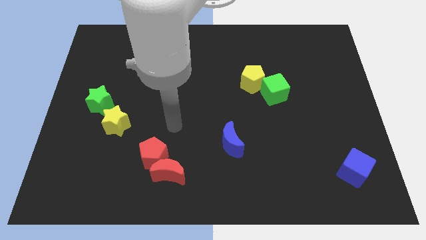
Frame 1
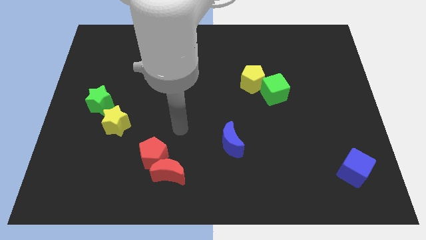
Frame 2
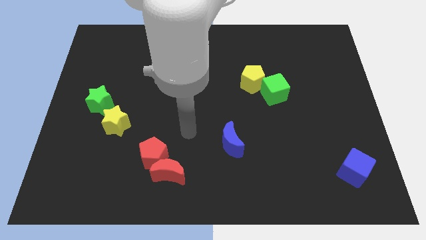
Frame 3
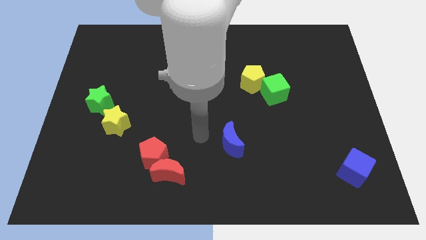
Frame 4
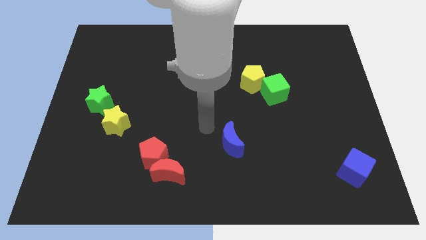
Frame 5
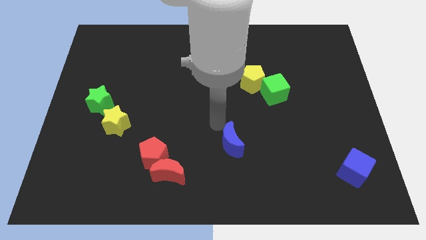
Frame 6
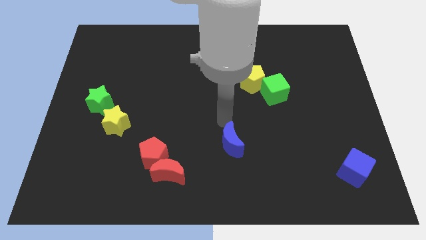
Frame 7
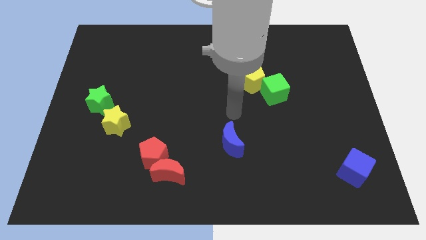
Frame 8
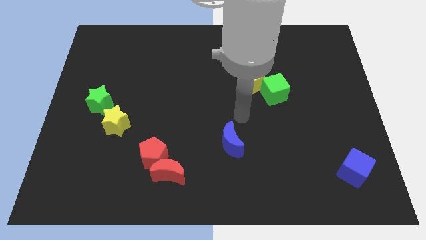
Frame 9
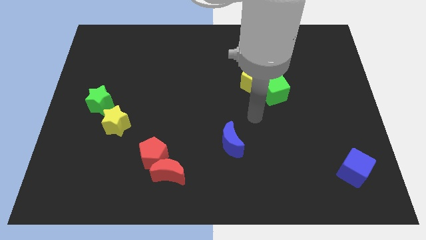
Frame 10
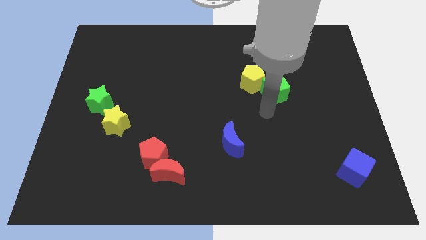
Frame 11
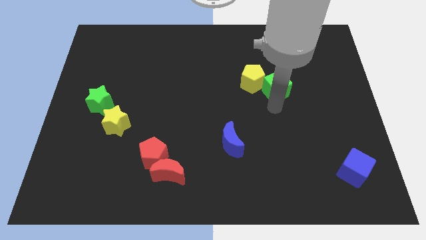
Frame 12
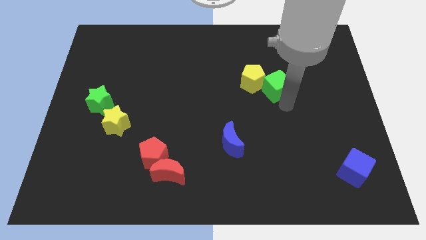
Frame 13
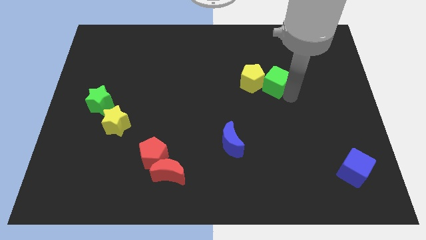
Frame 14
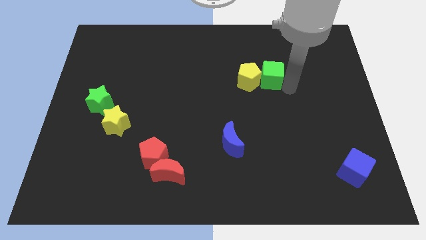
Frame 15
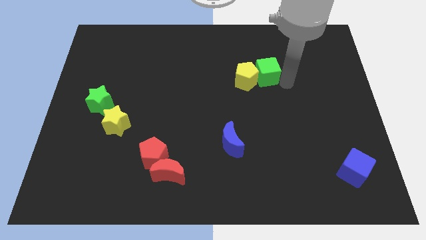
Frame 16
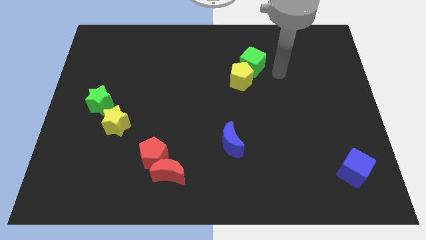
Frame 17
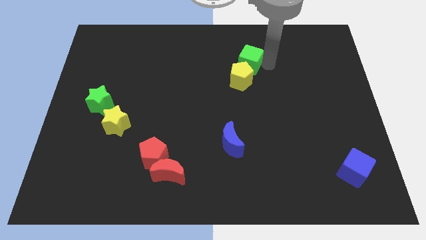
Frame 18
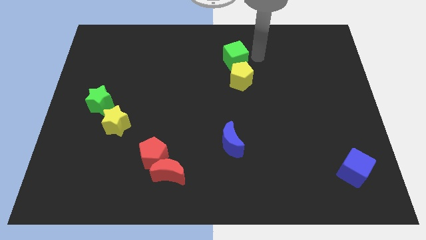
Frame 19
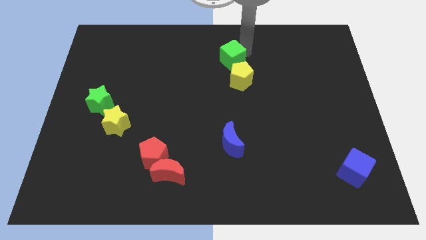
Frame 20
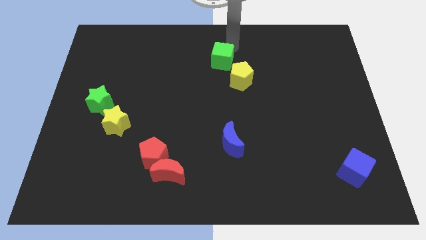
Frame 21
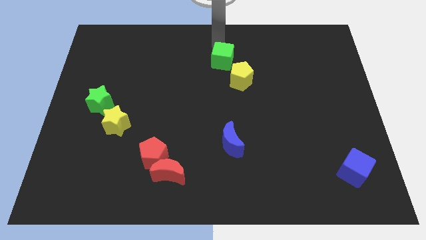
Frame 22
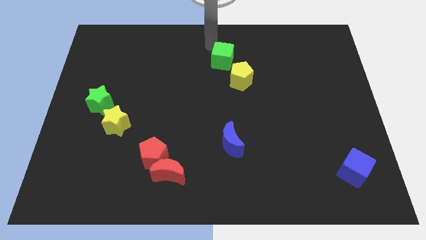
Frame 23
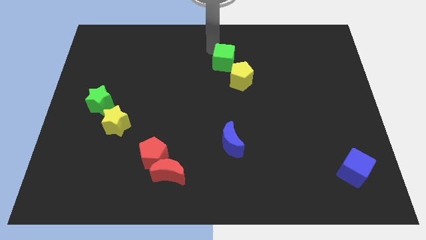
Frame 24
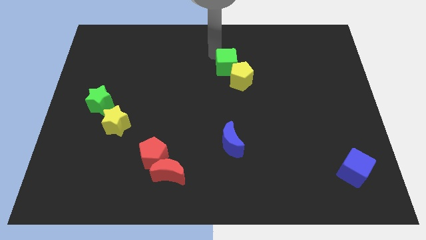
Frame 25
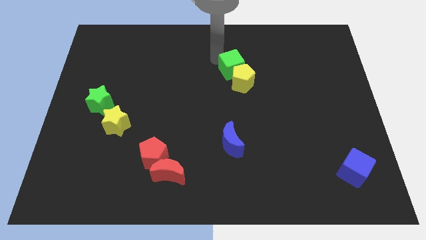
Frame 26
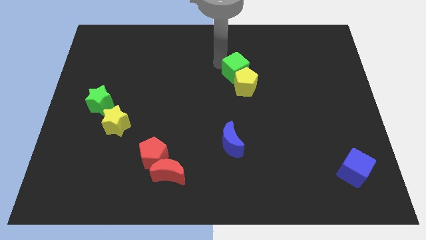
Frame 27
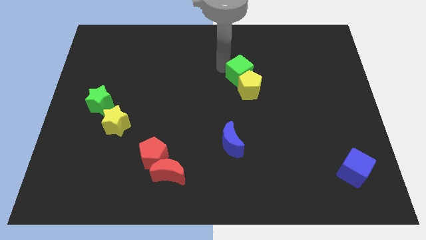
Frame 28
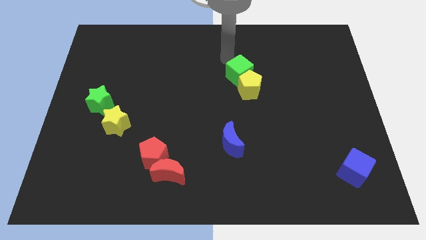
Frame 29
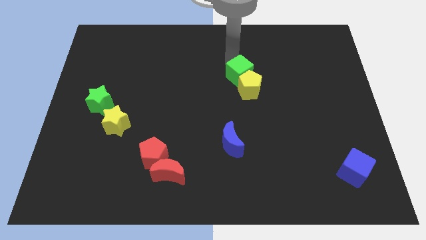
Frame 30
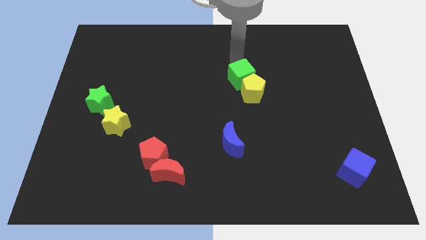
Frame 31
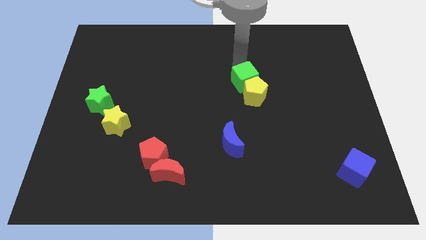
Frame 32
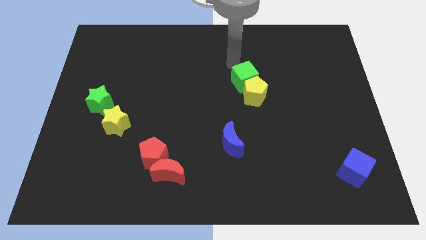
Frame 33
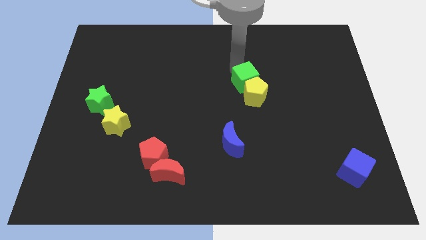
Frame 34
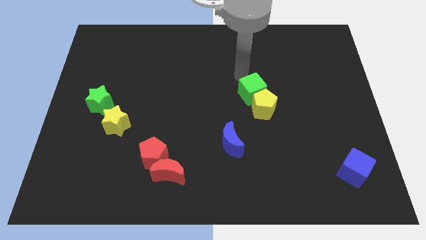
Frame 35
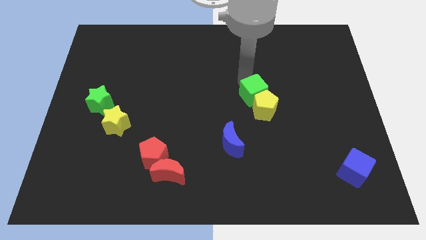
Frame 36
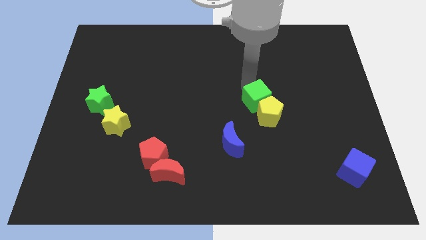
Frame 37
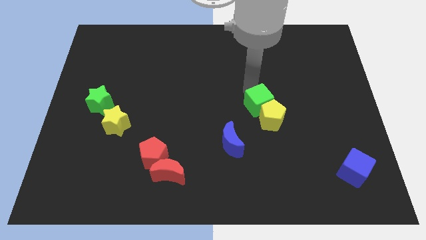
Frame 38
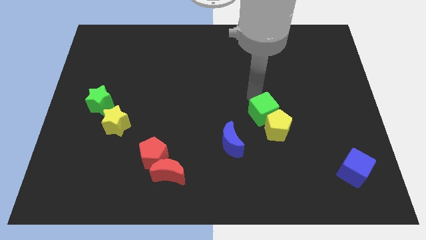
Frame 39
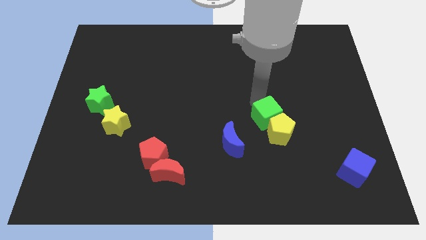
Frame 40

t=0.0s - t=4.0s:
slightly slide the green cube downwards

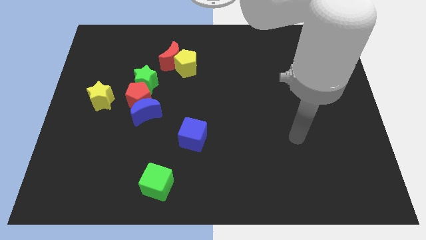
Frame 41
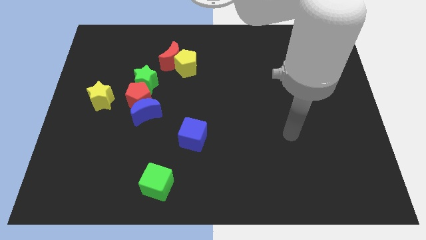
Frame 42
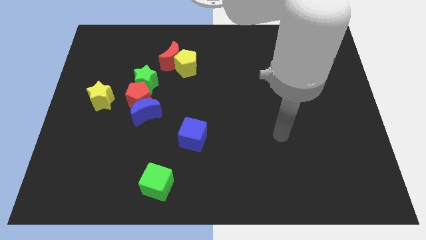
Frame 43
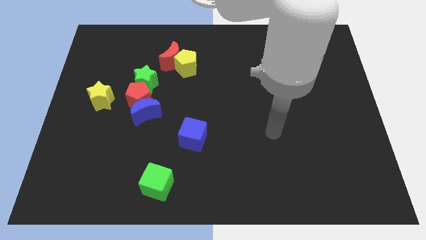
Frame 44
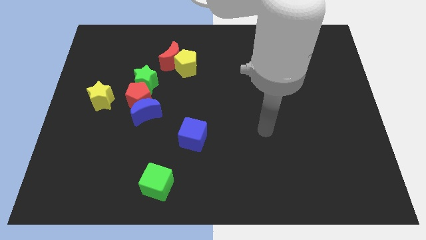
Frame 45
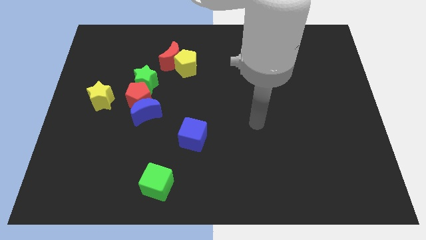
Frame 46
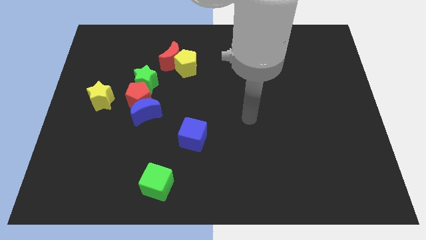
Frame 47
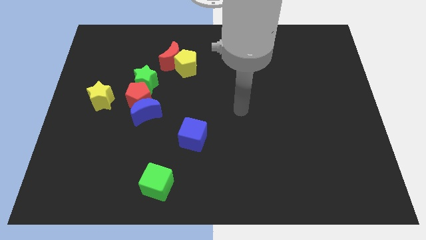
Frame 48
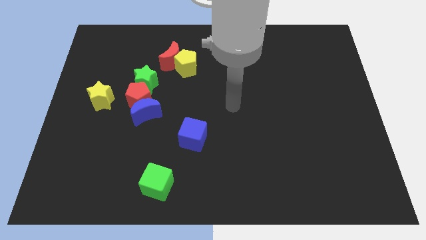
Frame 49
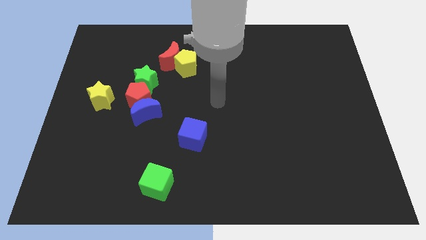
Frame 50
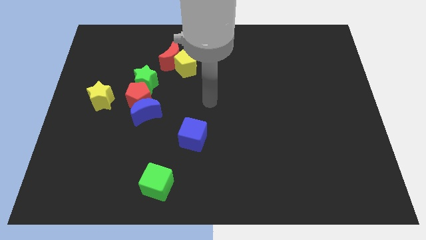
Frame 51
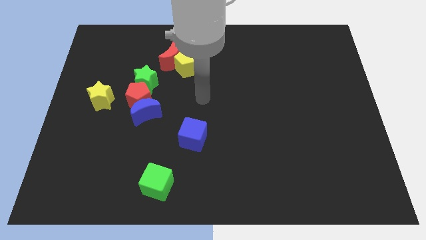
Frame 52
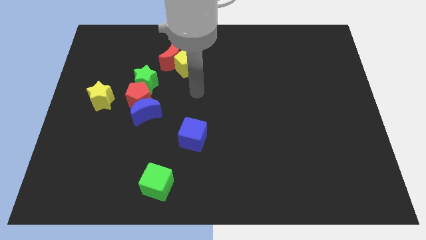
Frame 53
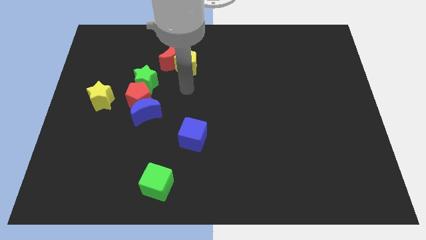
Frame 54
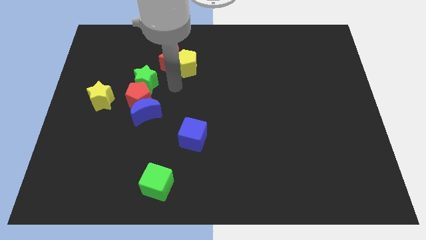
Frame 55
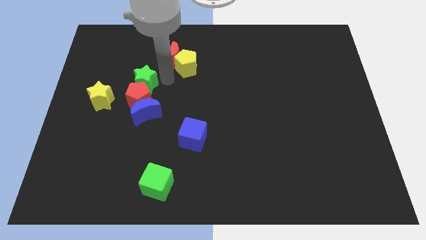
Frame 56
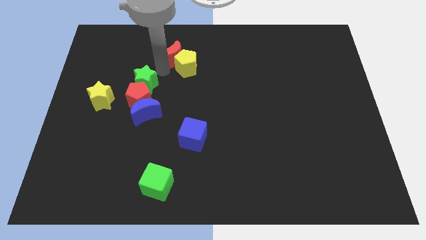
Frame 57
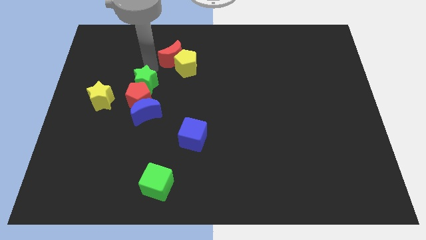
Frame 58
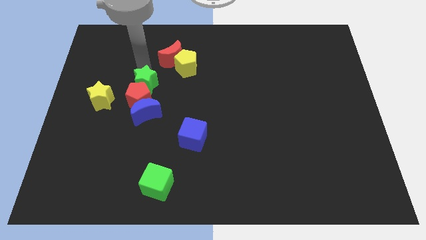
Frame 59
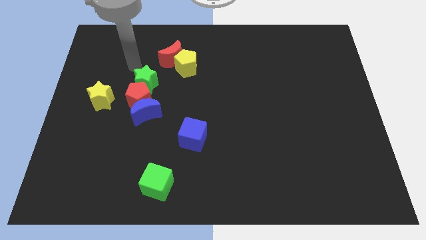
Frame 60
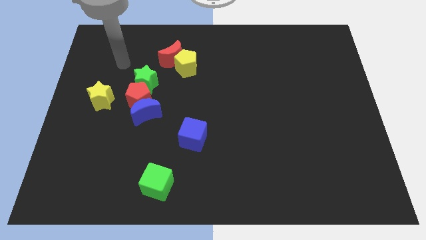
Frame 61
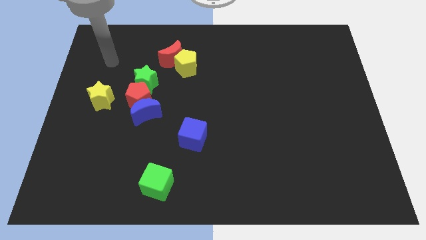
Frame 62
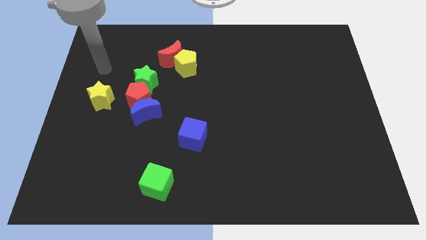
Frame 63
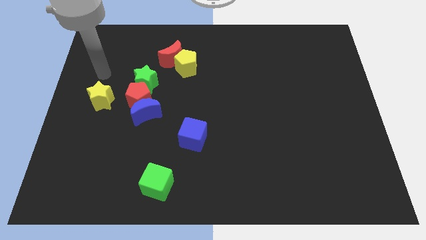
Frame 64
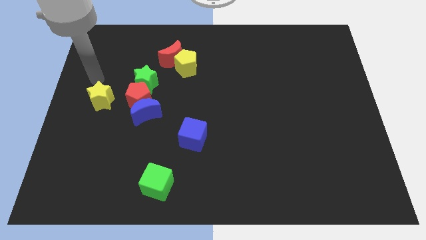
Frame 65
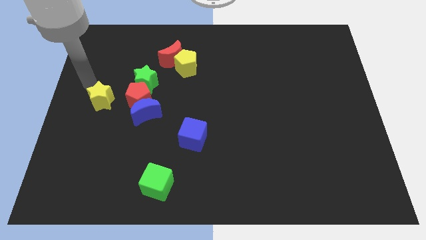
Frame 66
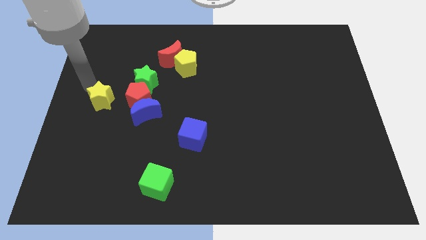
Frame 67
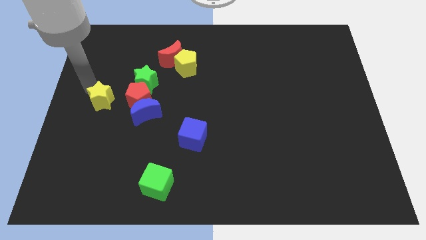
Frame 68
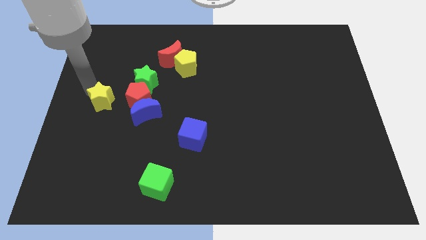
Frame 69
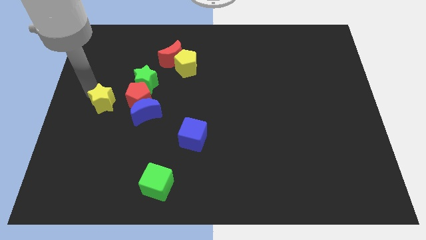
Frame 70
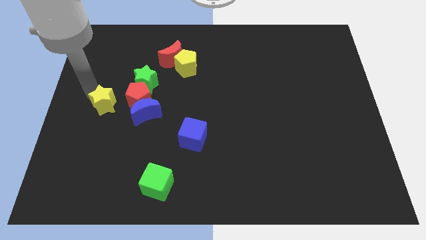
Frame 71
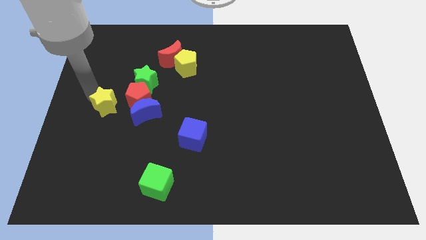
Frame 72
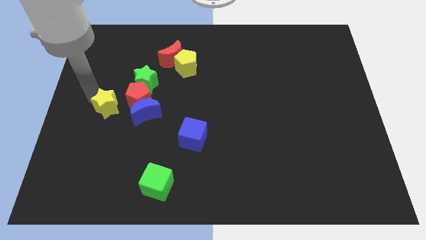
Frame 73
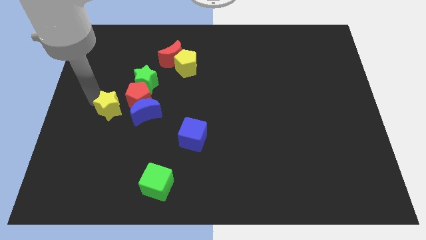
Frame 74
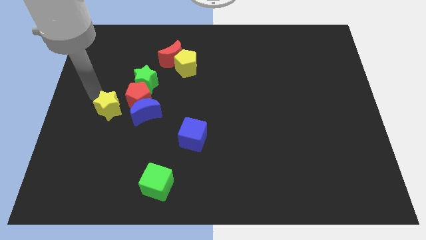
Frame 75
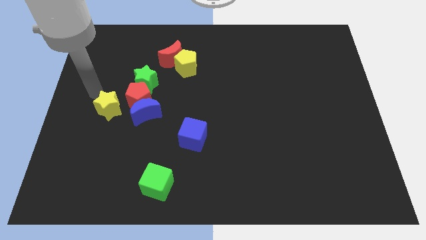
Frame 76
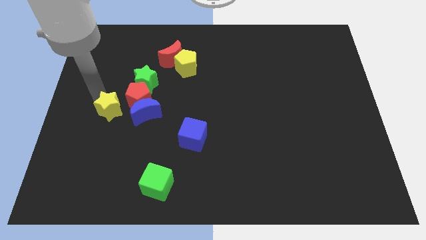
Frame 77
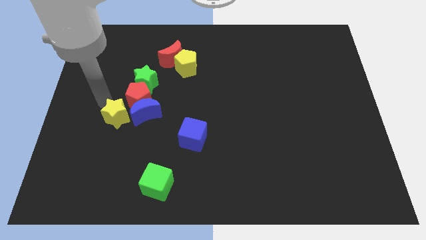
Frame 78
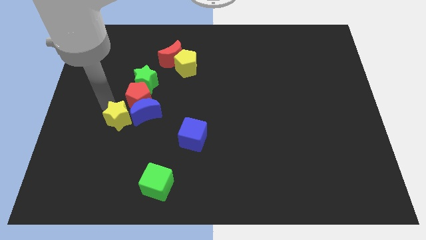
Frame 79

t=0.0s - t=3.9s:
slide the yellow star downwards and right a little
